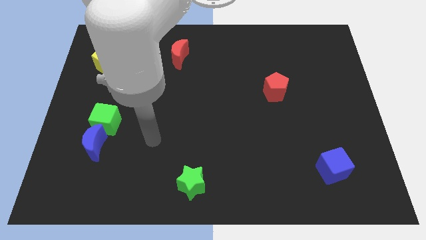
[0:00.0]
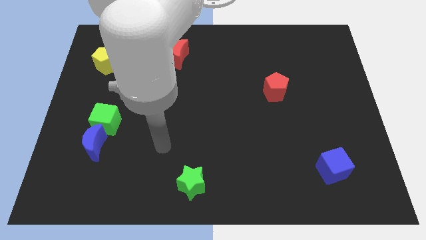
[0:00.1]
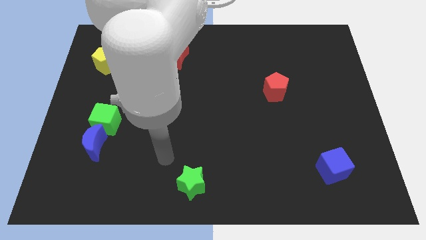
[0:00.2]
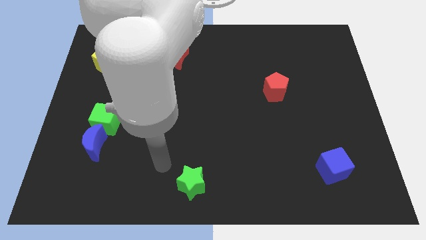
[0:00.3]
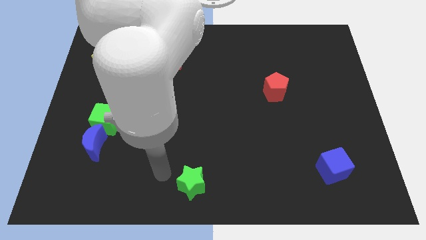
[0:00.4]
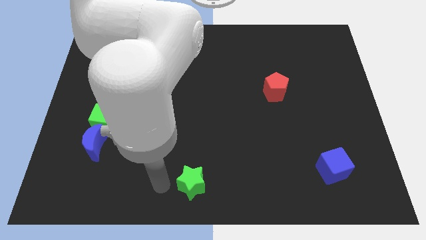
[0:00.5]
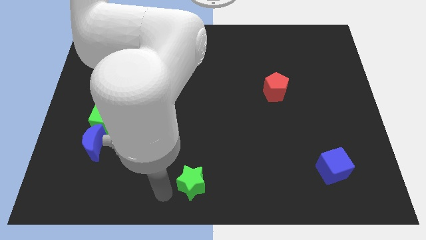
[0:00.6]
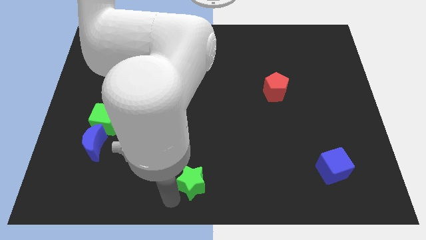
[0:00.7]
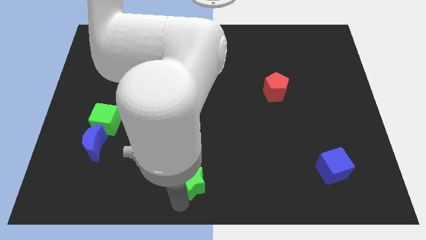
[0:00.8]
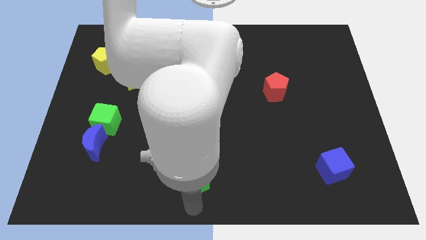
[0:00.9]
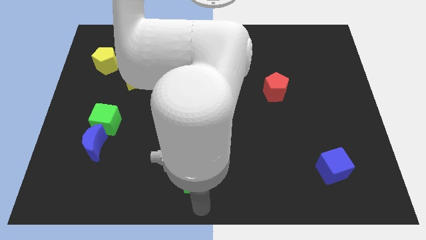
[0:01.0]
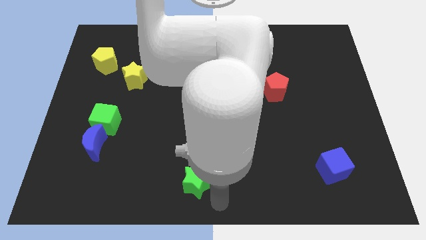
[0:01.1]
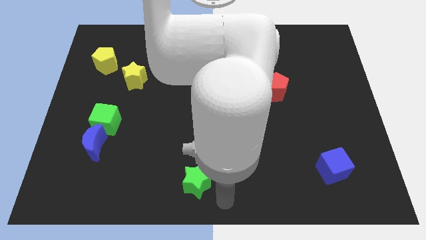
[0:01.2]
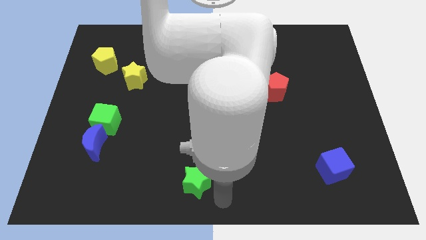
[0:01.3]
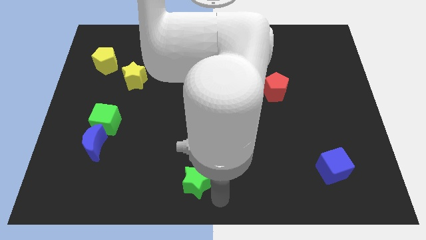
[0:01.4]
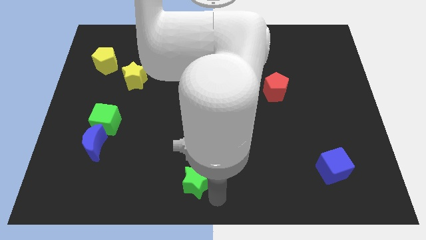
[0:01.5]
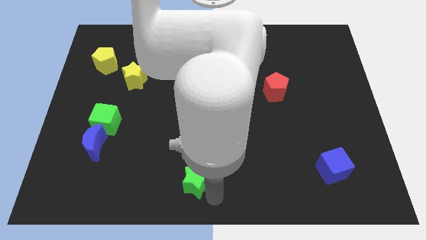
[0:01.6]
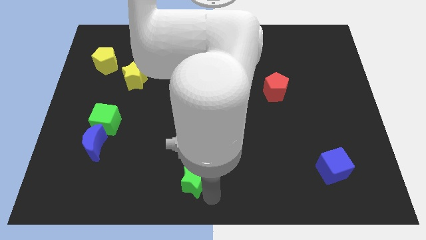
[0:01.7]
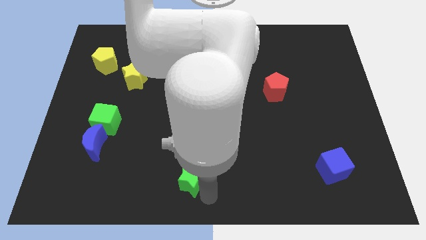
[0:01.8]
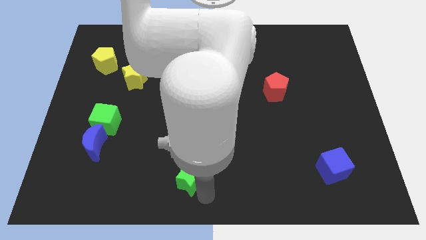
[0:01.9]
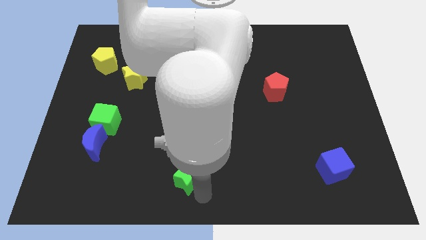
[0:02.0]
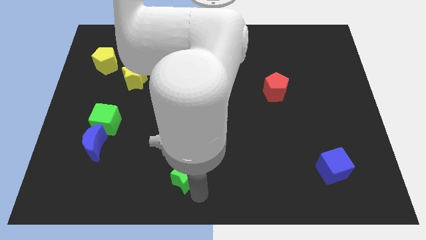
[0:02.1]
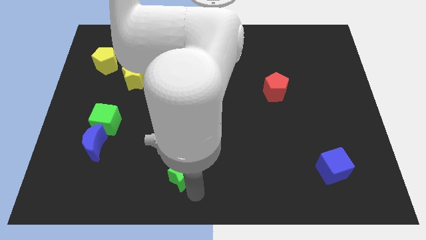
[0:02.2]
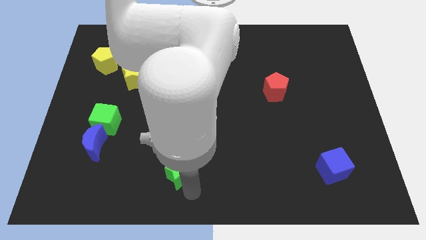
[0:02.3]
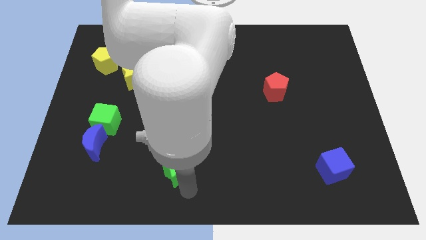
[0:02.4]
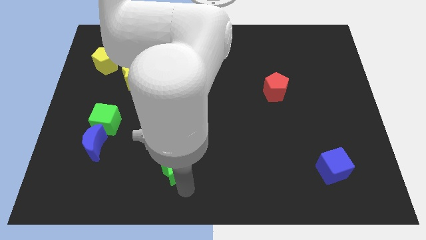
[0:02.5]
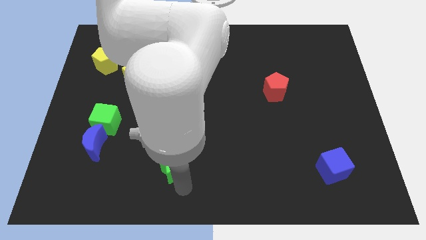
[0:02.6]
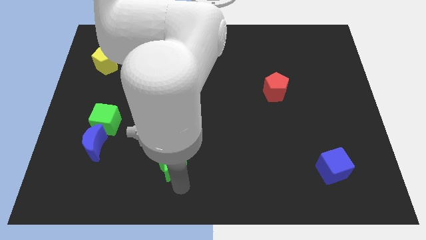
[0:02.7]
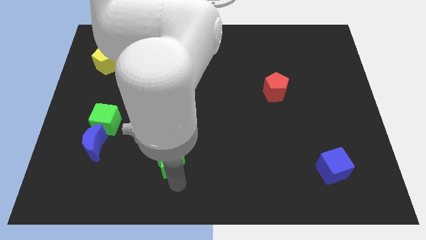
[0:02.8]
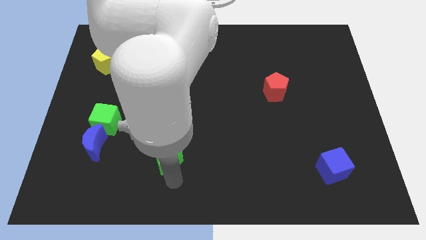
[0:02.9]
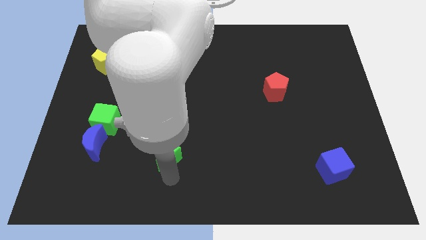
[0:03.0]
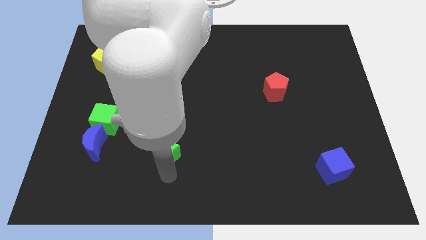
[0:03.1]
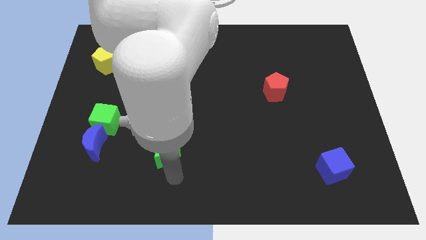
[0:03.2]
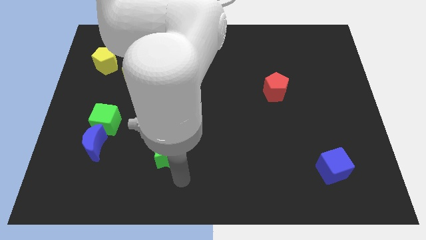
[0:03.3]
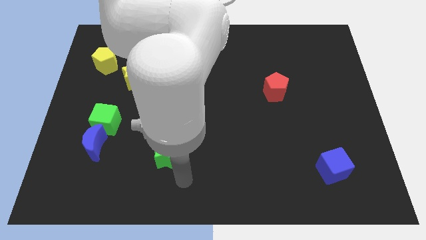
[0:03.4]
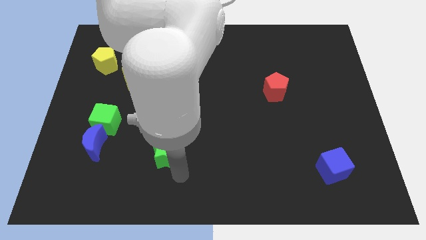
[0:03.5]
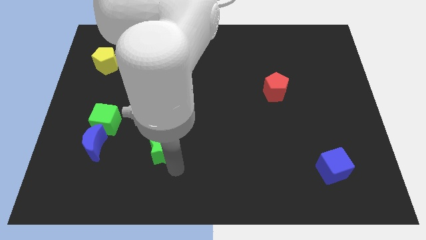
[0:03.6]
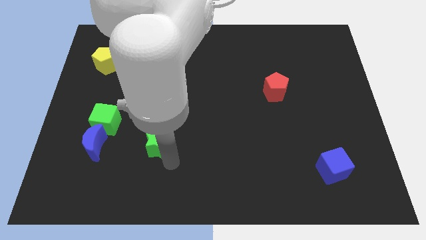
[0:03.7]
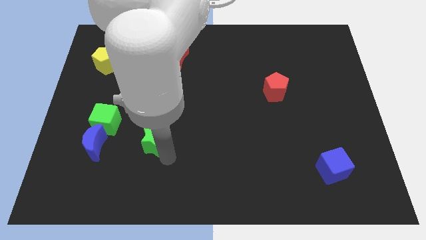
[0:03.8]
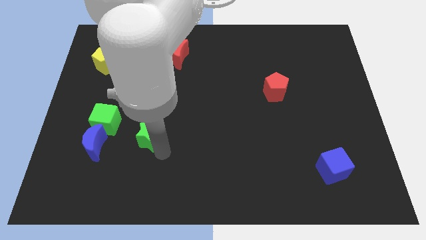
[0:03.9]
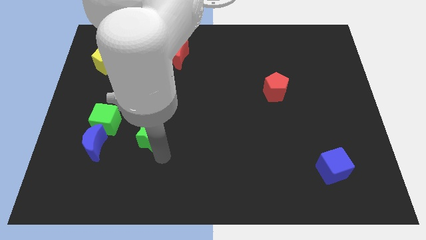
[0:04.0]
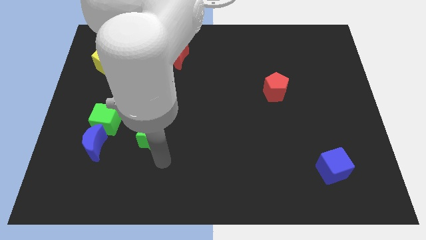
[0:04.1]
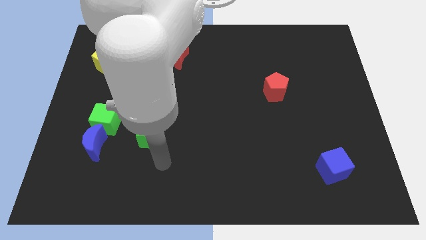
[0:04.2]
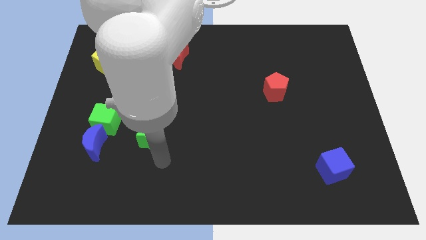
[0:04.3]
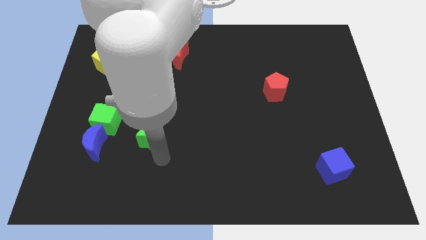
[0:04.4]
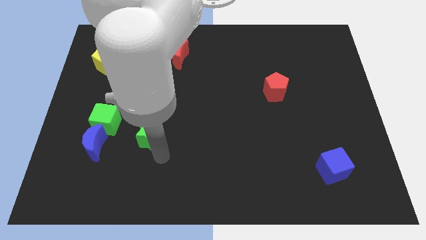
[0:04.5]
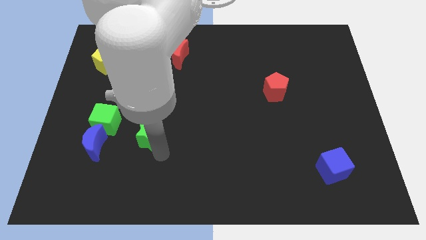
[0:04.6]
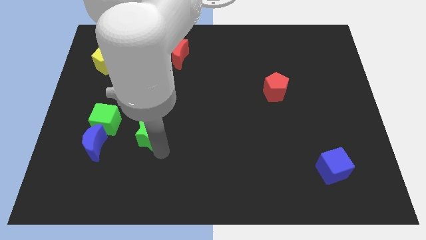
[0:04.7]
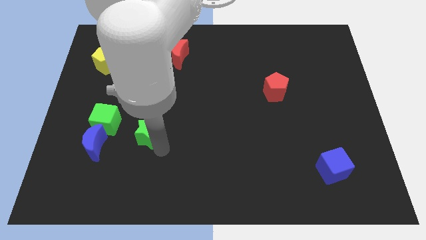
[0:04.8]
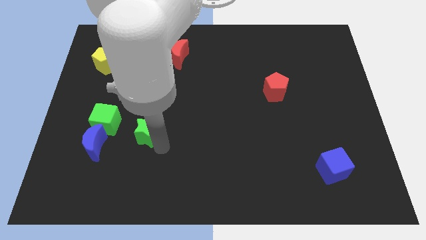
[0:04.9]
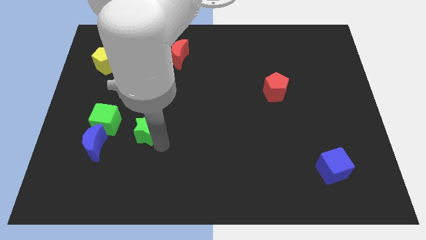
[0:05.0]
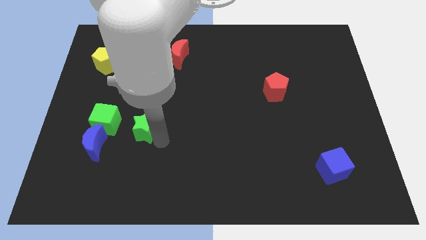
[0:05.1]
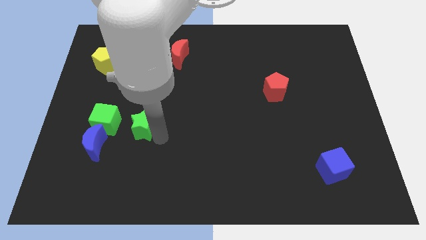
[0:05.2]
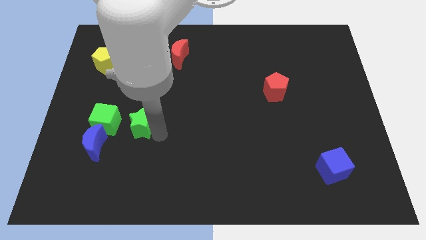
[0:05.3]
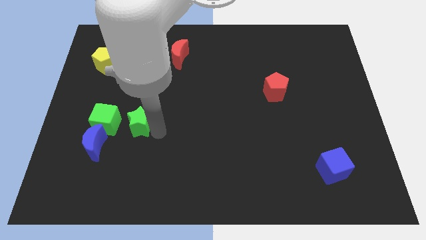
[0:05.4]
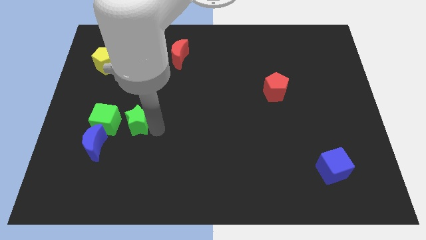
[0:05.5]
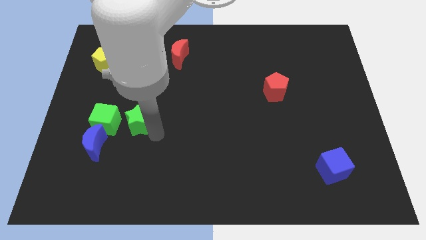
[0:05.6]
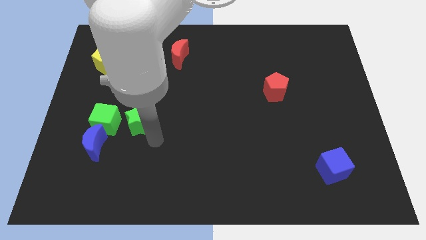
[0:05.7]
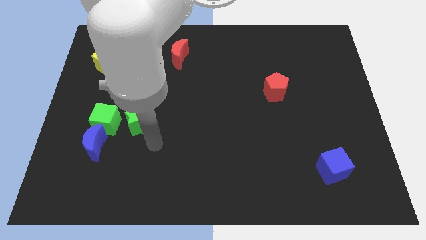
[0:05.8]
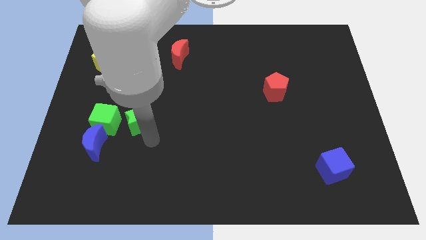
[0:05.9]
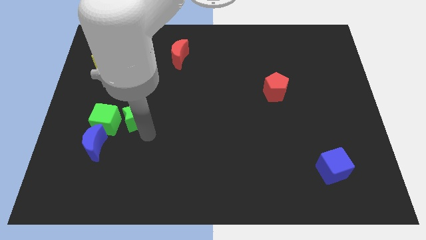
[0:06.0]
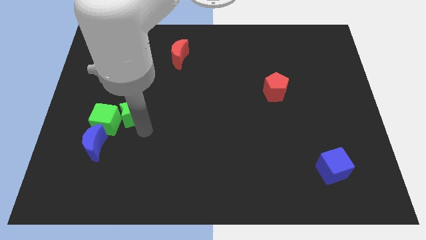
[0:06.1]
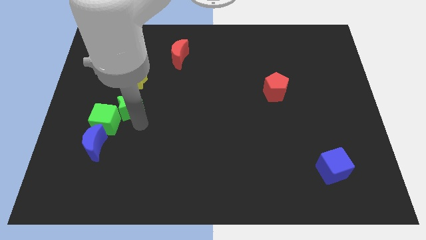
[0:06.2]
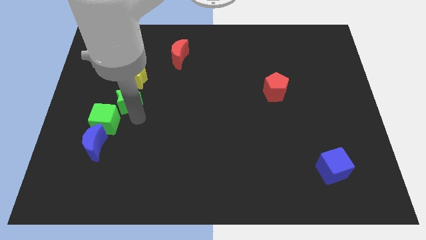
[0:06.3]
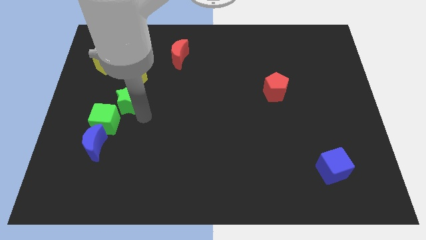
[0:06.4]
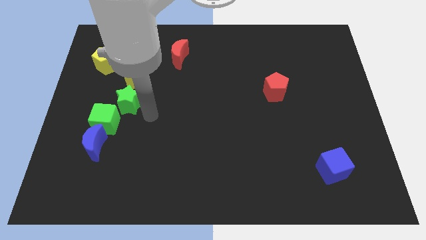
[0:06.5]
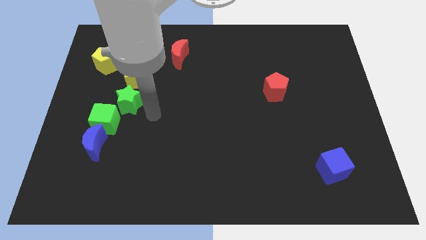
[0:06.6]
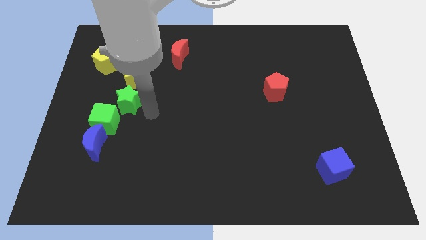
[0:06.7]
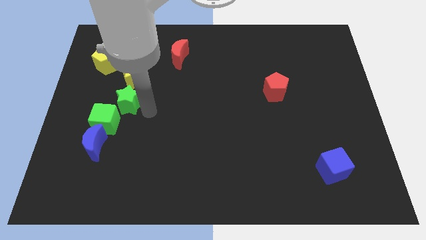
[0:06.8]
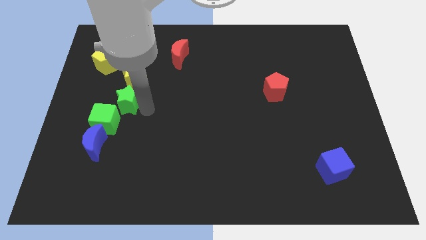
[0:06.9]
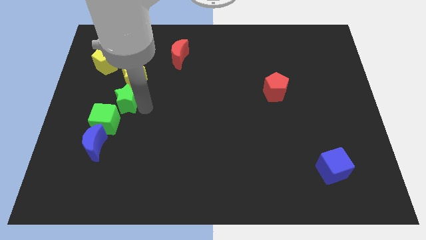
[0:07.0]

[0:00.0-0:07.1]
push the green star diagonally down and to the left of the yellow star

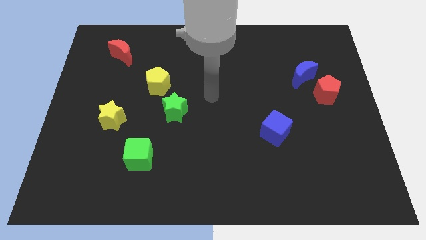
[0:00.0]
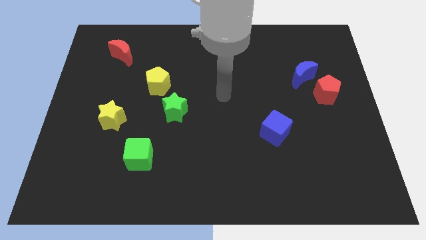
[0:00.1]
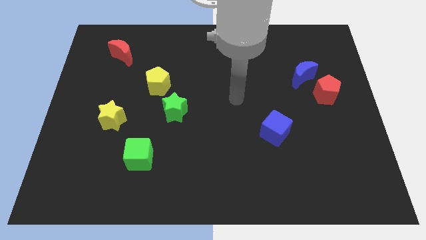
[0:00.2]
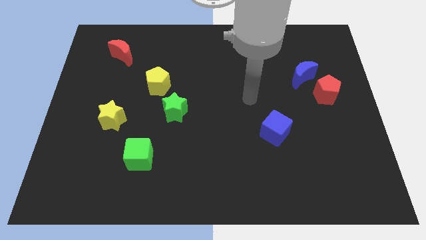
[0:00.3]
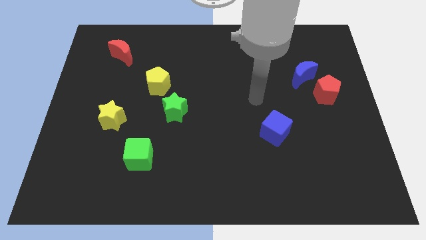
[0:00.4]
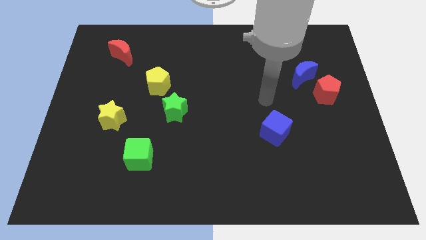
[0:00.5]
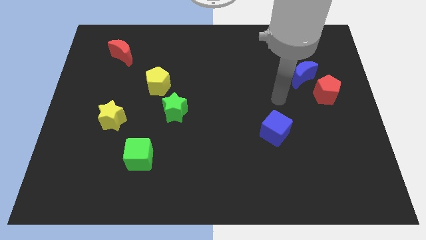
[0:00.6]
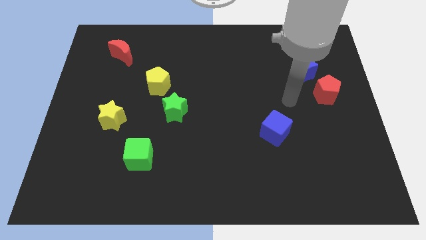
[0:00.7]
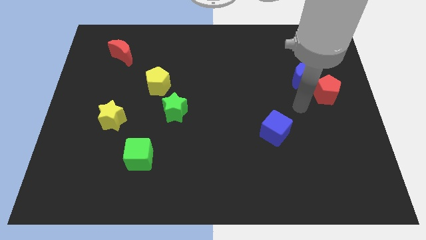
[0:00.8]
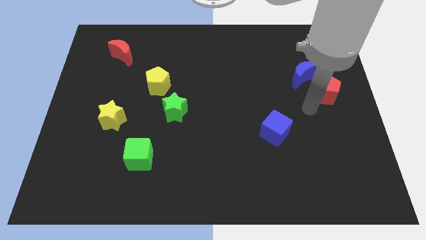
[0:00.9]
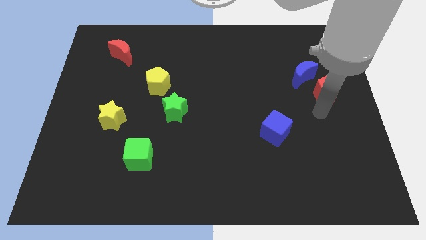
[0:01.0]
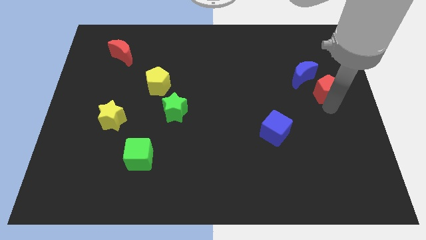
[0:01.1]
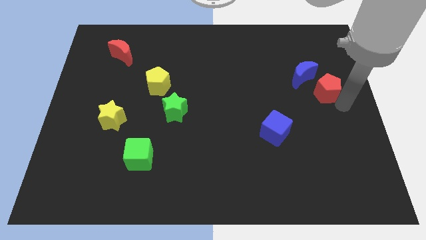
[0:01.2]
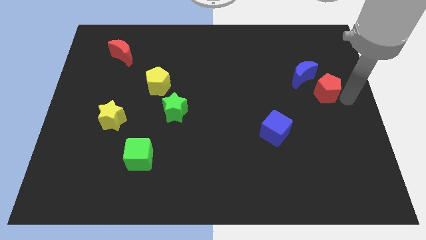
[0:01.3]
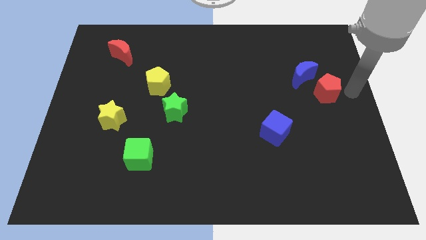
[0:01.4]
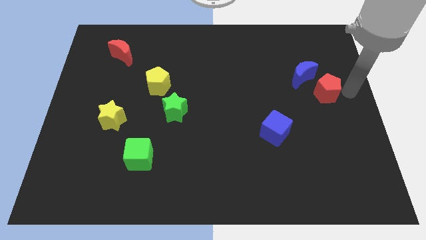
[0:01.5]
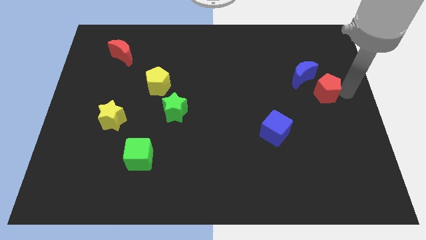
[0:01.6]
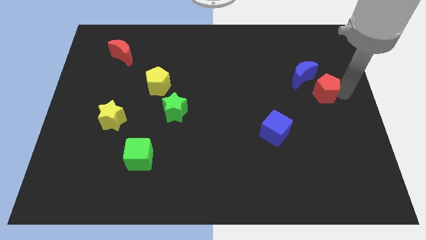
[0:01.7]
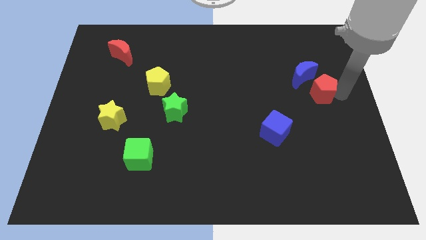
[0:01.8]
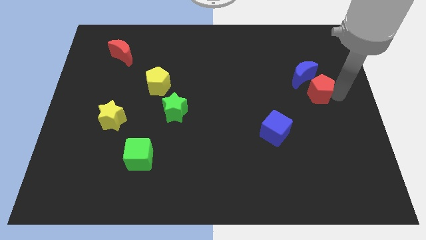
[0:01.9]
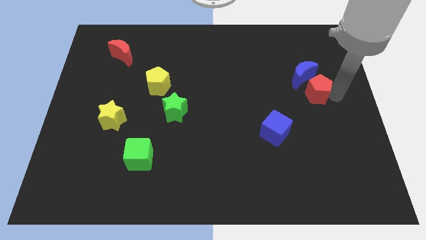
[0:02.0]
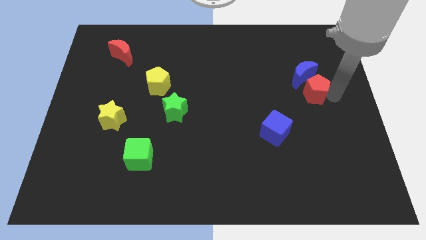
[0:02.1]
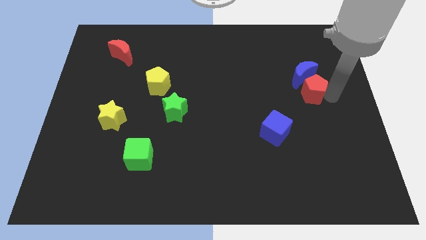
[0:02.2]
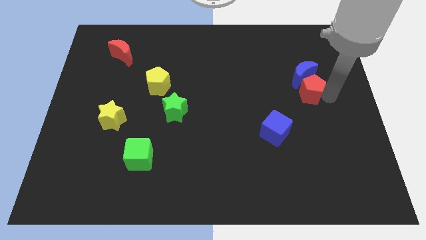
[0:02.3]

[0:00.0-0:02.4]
push the red pentagon to the bottom left of the blue moon
